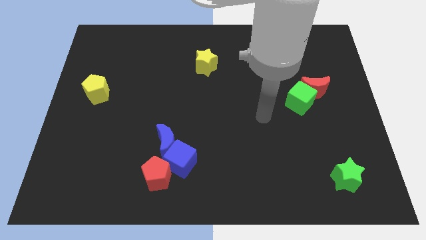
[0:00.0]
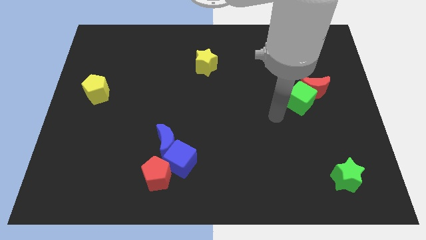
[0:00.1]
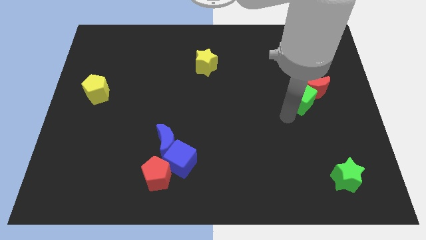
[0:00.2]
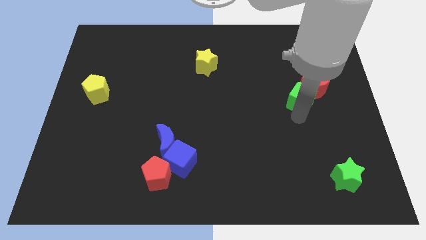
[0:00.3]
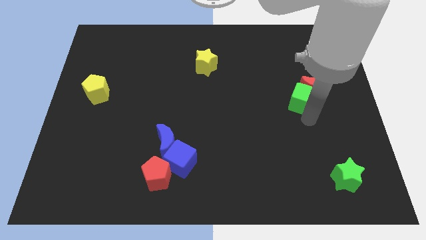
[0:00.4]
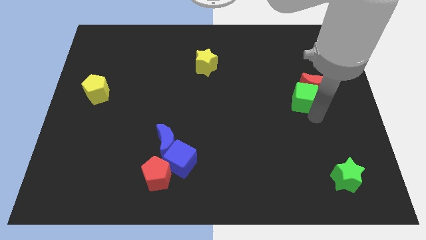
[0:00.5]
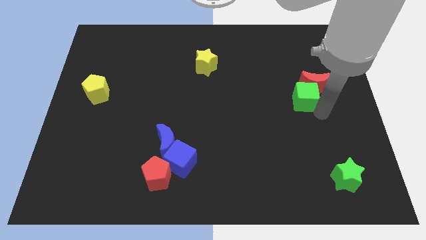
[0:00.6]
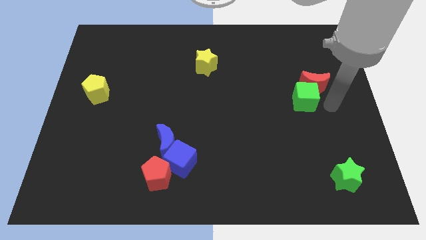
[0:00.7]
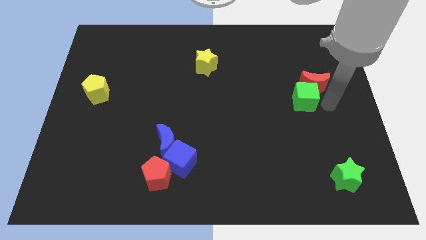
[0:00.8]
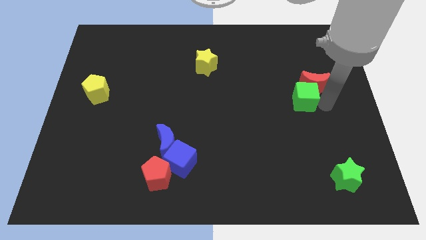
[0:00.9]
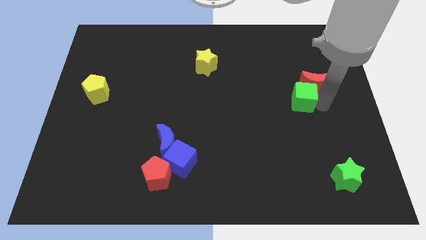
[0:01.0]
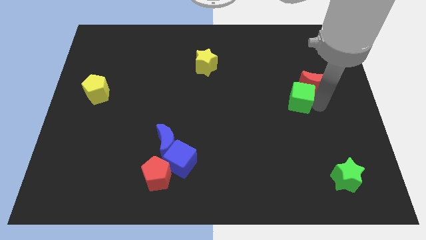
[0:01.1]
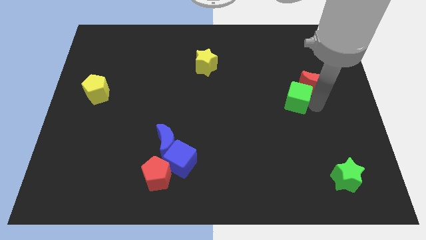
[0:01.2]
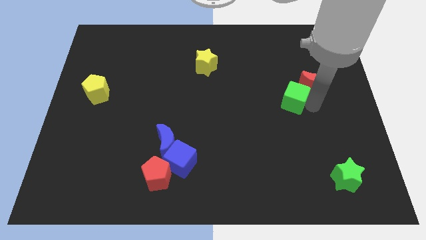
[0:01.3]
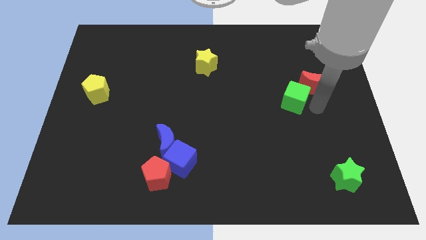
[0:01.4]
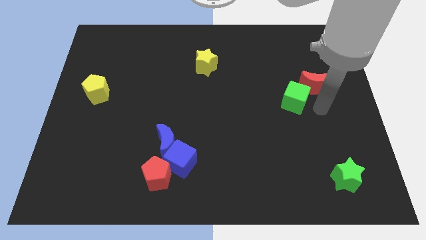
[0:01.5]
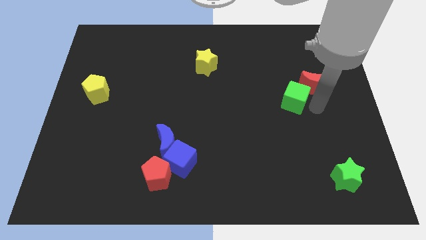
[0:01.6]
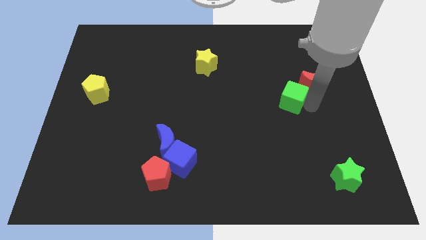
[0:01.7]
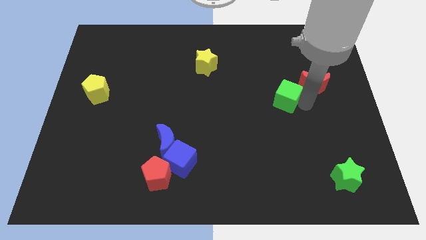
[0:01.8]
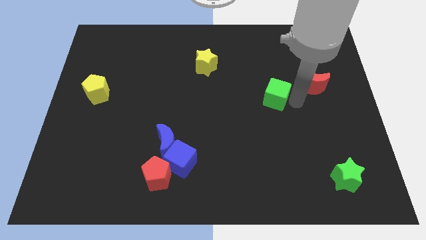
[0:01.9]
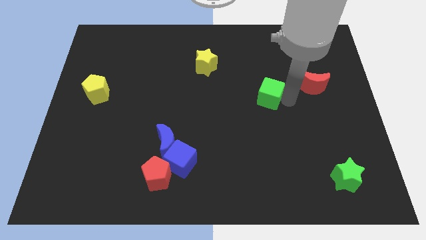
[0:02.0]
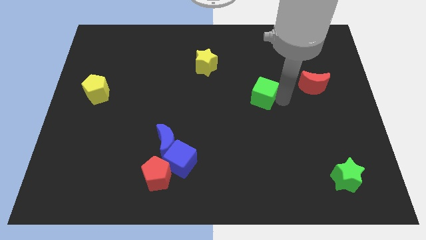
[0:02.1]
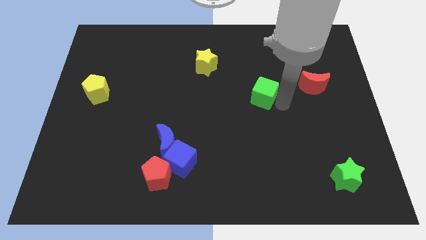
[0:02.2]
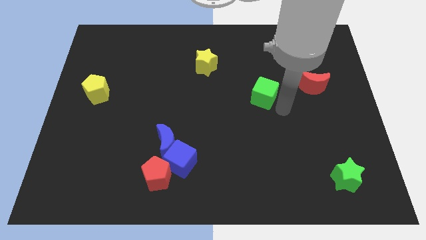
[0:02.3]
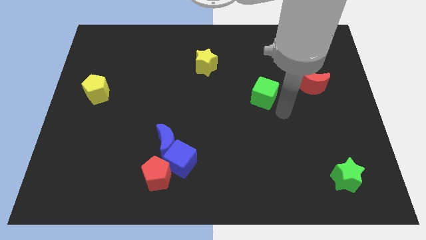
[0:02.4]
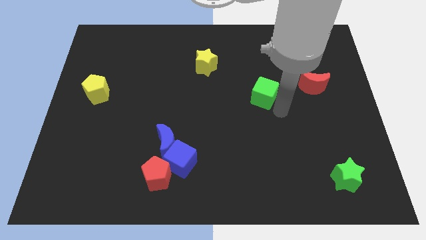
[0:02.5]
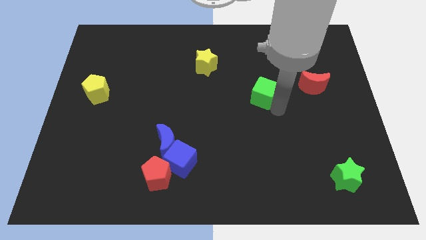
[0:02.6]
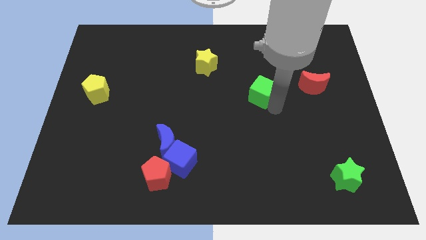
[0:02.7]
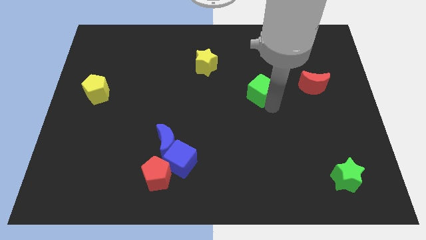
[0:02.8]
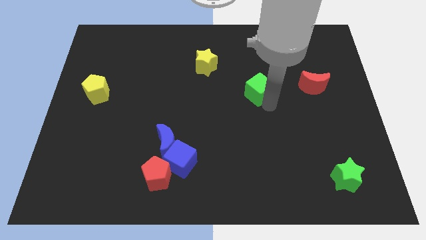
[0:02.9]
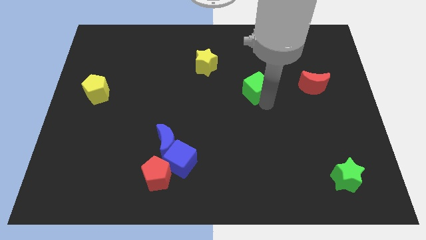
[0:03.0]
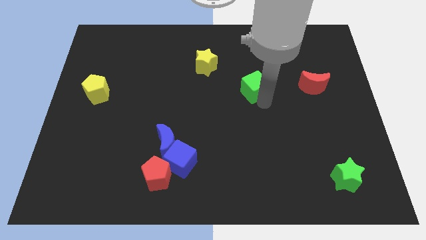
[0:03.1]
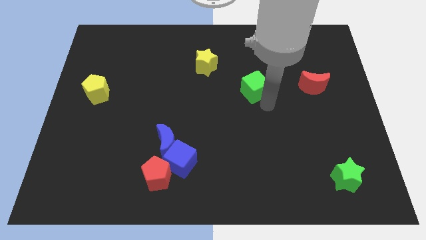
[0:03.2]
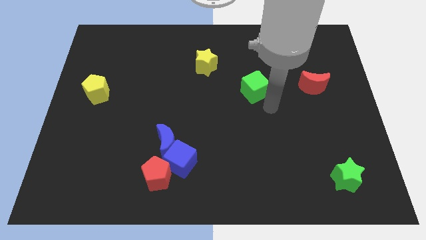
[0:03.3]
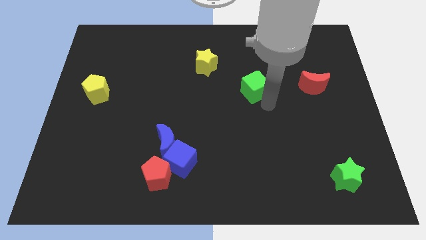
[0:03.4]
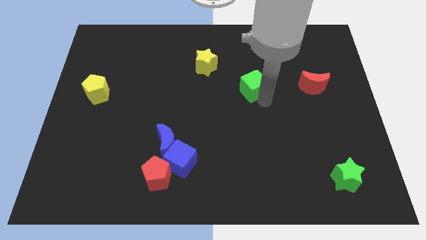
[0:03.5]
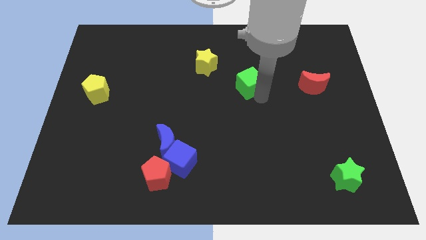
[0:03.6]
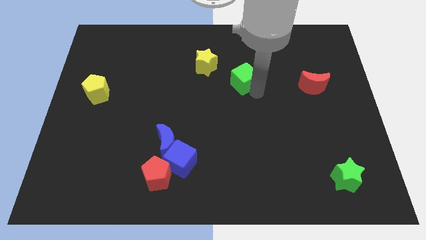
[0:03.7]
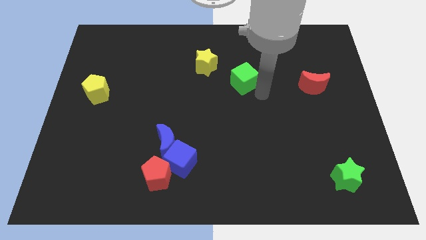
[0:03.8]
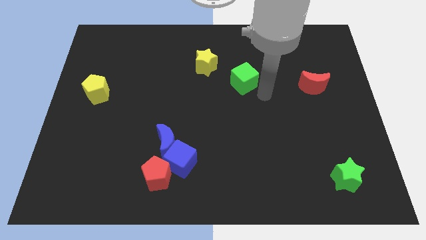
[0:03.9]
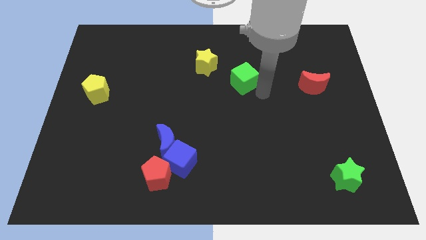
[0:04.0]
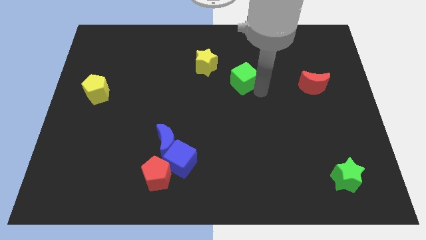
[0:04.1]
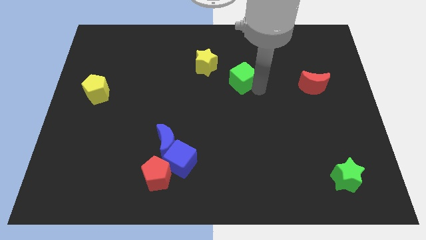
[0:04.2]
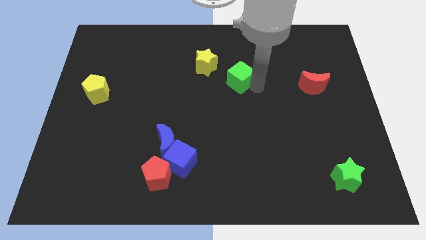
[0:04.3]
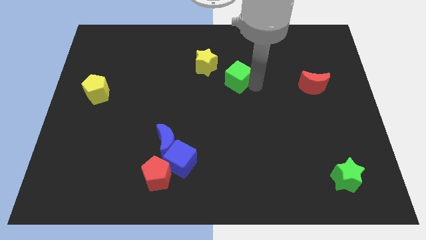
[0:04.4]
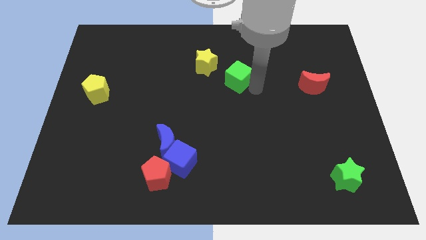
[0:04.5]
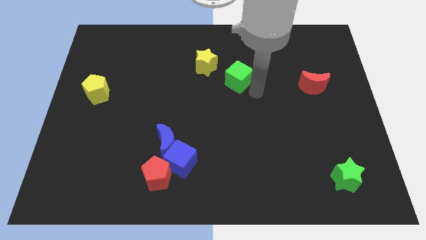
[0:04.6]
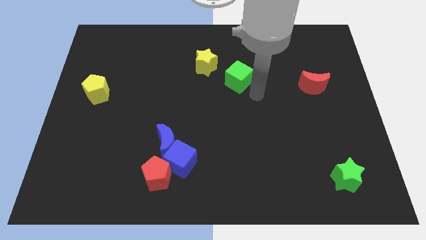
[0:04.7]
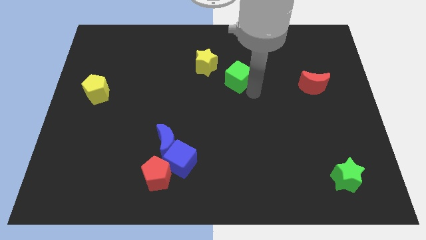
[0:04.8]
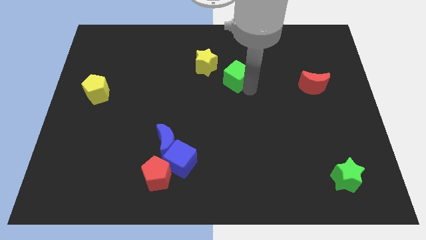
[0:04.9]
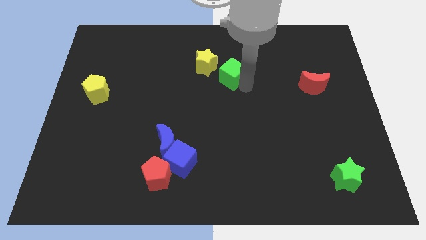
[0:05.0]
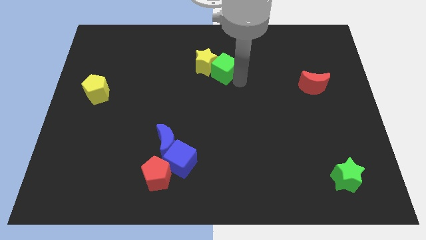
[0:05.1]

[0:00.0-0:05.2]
push the green cube next to the yellow star

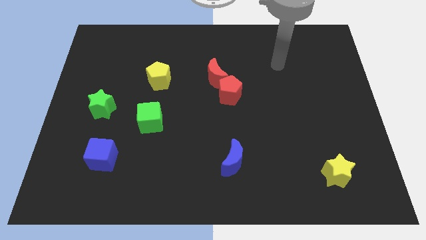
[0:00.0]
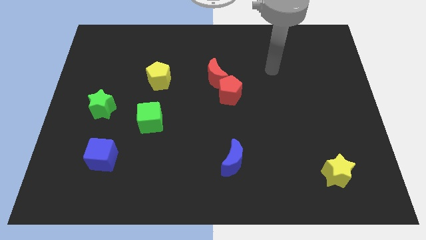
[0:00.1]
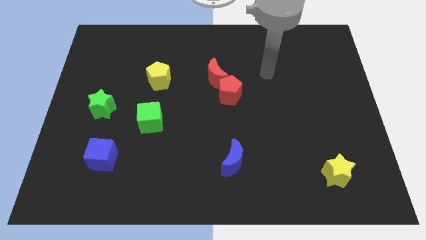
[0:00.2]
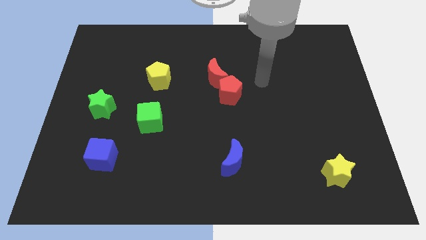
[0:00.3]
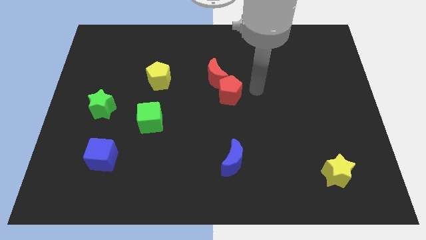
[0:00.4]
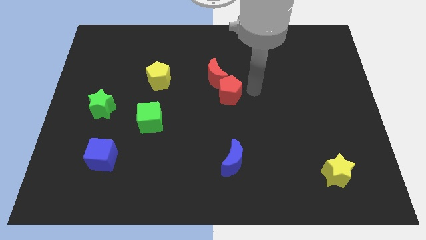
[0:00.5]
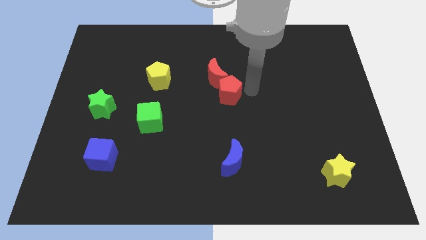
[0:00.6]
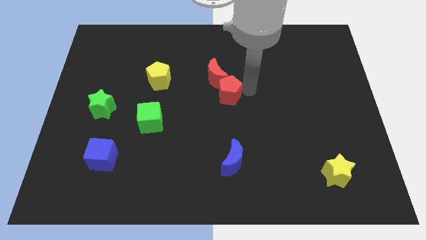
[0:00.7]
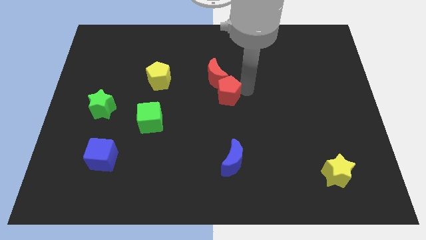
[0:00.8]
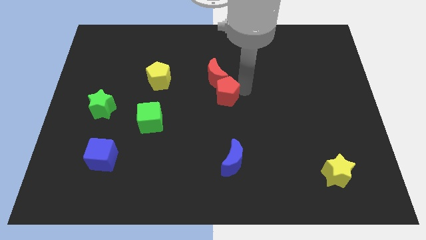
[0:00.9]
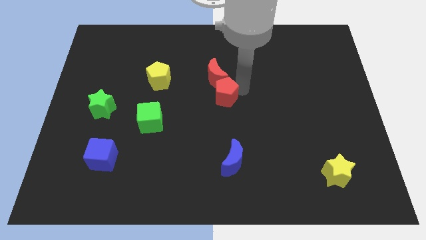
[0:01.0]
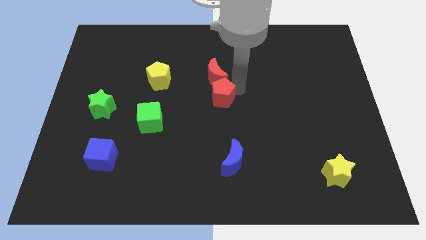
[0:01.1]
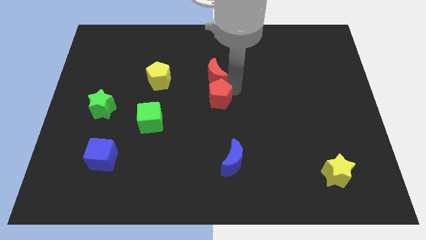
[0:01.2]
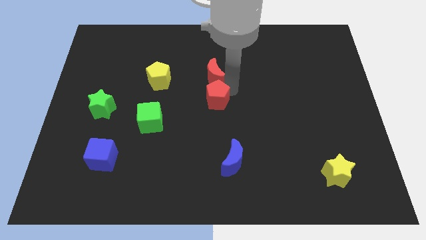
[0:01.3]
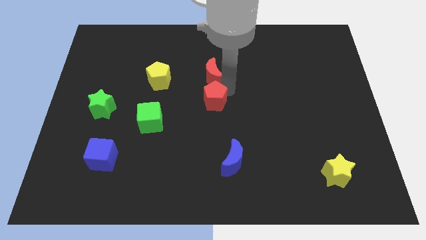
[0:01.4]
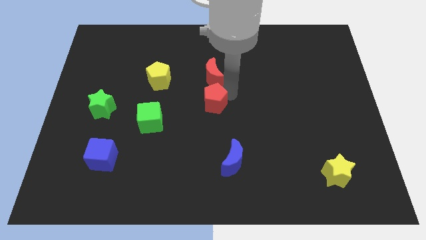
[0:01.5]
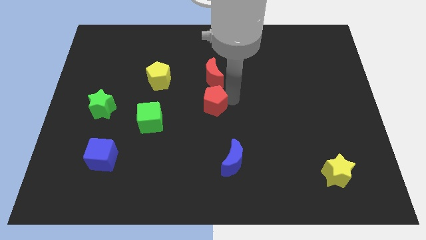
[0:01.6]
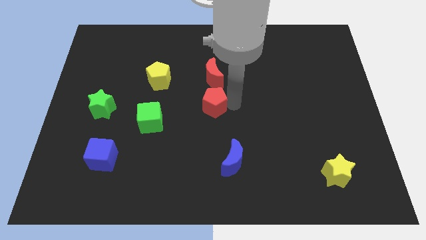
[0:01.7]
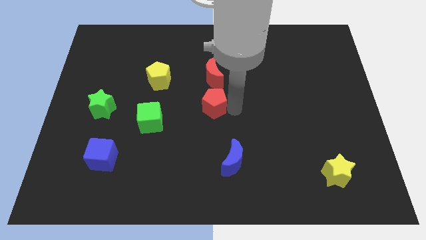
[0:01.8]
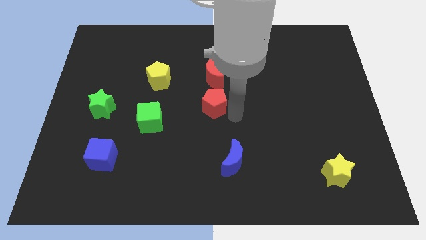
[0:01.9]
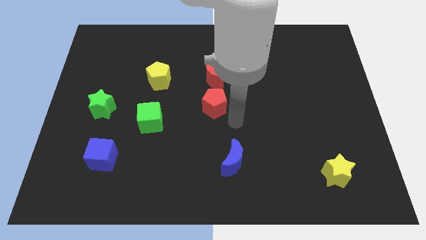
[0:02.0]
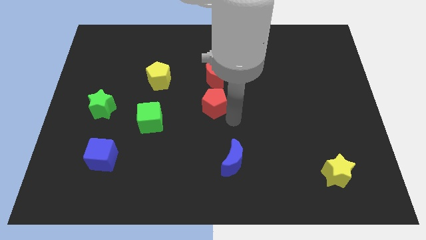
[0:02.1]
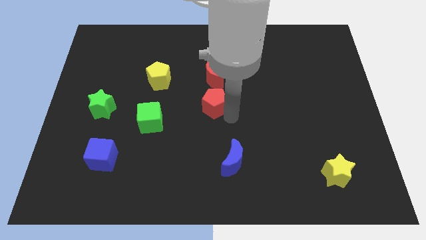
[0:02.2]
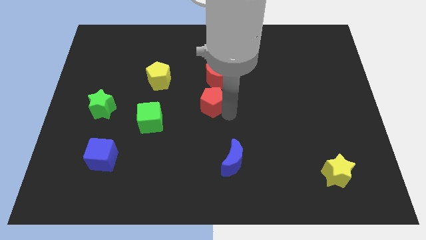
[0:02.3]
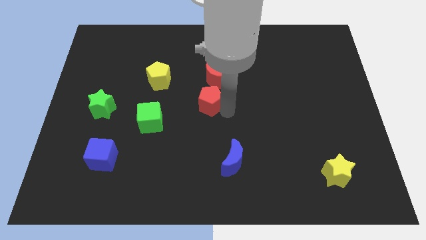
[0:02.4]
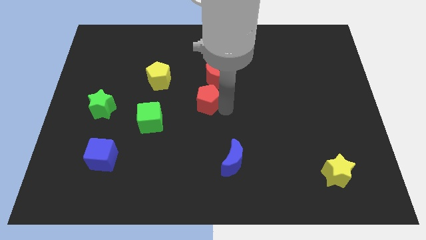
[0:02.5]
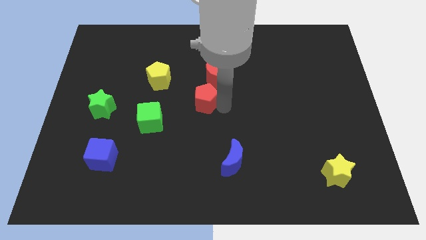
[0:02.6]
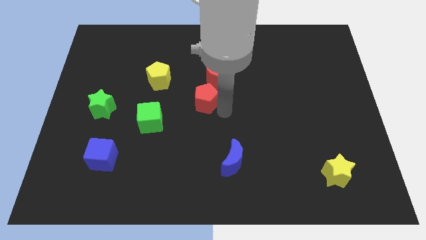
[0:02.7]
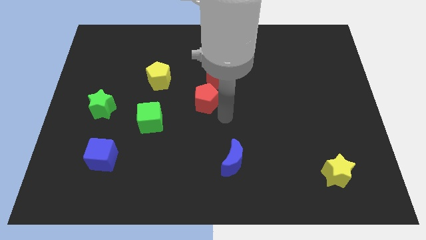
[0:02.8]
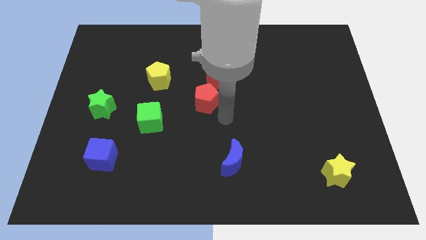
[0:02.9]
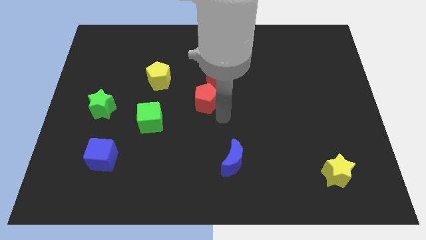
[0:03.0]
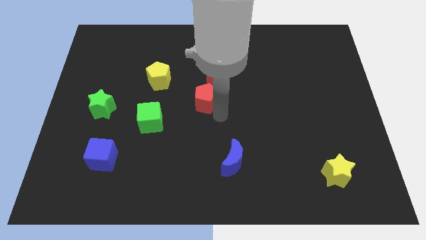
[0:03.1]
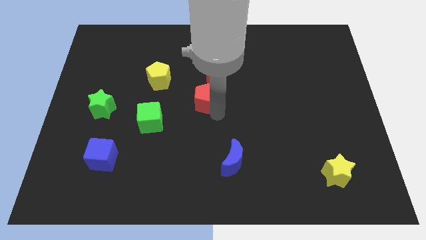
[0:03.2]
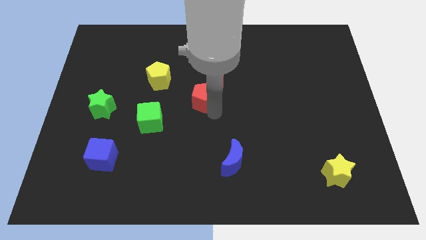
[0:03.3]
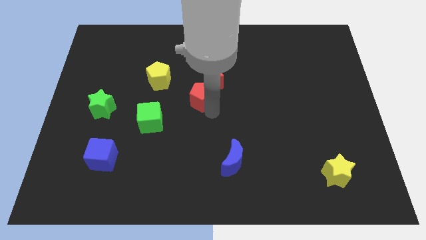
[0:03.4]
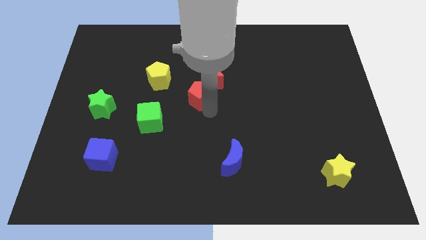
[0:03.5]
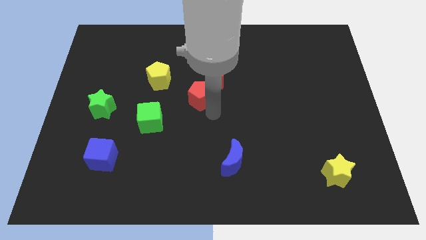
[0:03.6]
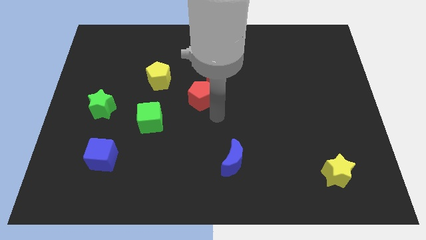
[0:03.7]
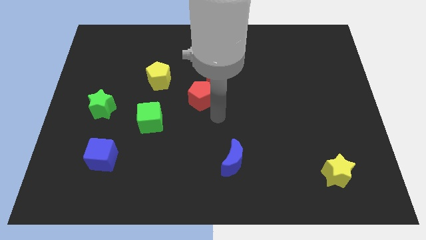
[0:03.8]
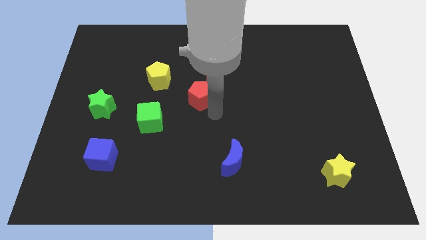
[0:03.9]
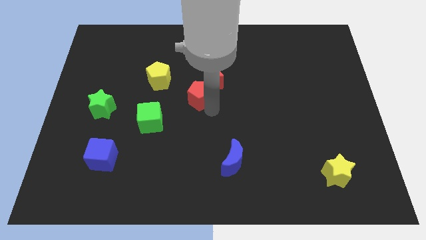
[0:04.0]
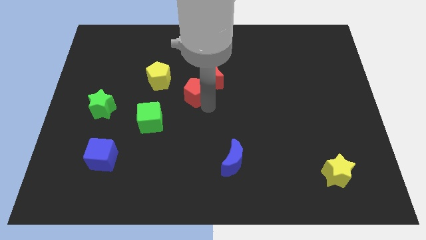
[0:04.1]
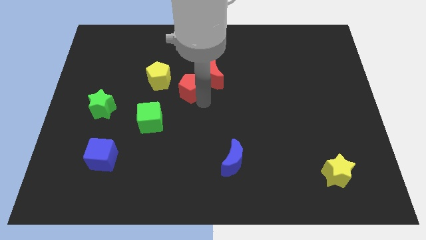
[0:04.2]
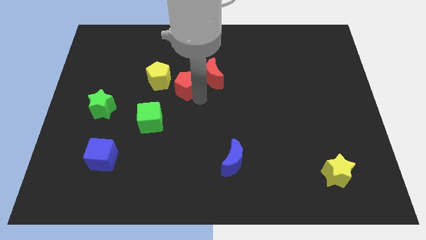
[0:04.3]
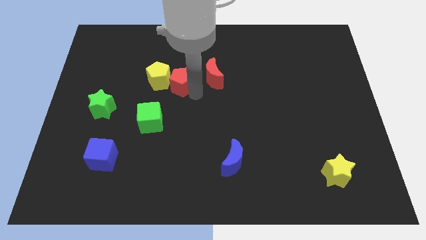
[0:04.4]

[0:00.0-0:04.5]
put the red pentagon close to the yellow pentagon
